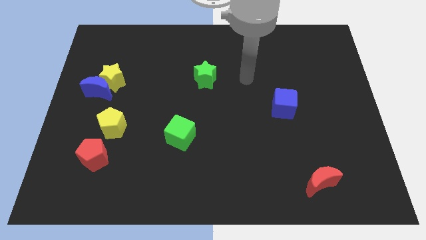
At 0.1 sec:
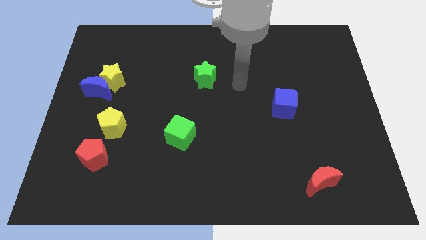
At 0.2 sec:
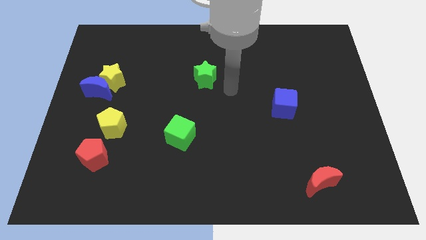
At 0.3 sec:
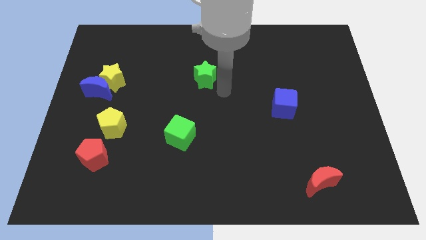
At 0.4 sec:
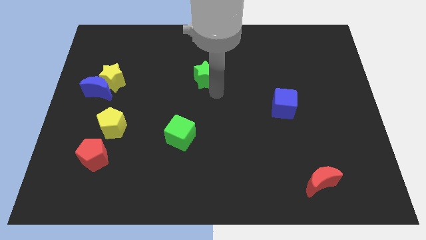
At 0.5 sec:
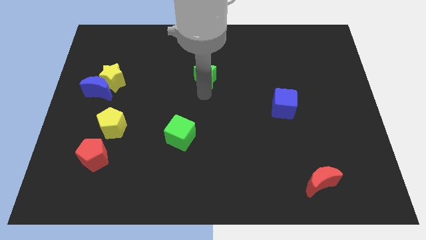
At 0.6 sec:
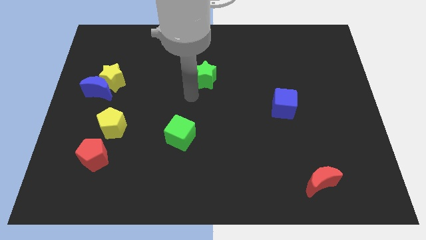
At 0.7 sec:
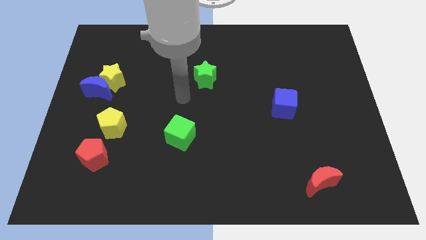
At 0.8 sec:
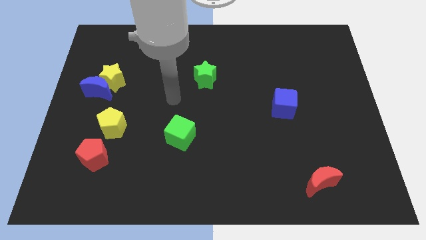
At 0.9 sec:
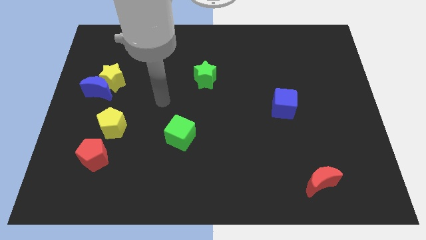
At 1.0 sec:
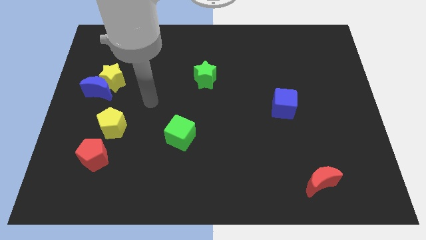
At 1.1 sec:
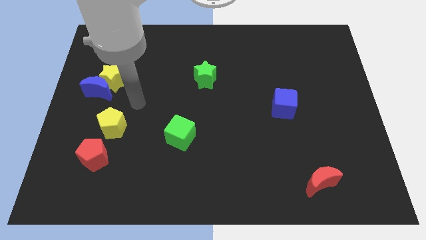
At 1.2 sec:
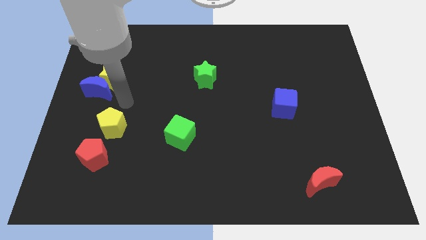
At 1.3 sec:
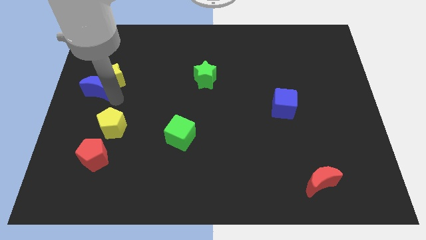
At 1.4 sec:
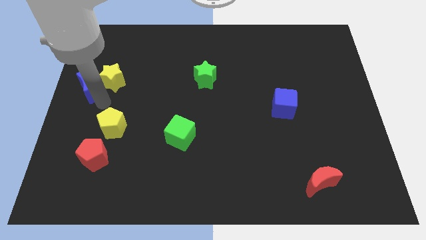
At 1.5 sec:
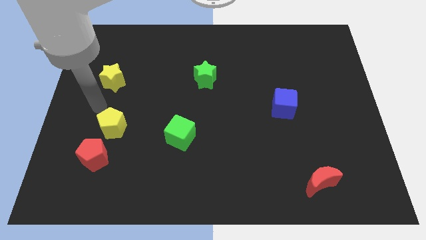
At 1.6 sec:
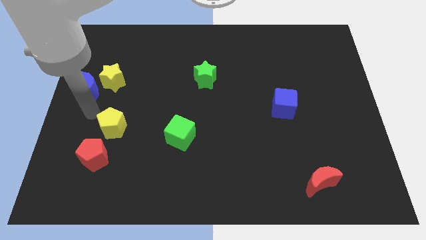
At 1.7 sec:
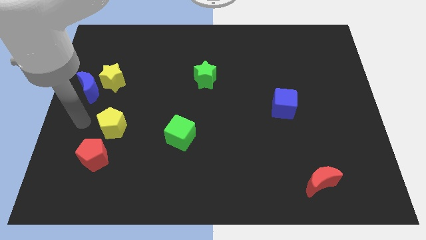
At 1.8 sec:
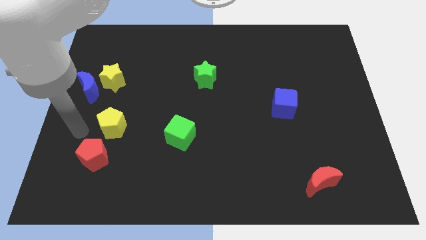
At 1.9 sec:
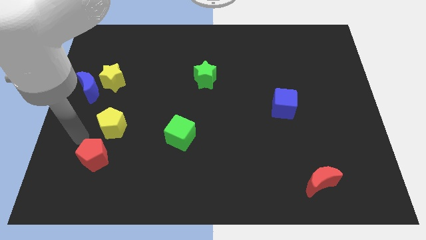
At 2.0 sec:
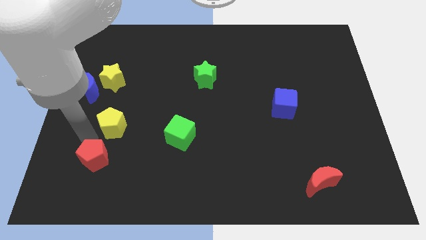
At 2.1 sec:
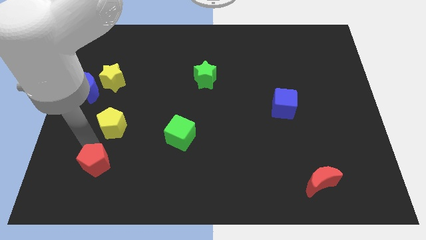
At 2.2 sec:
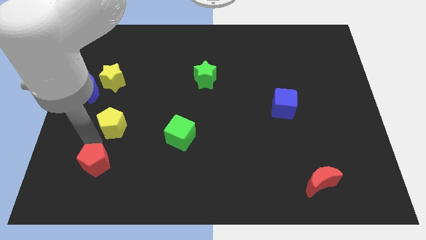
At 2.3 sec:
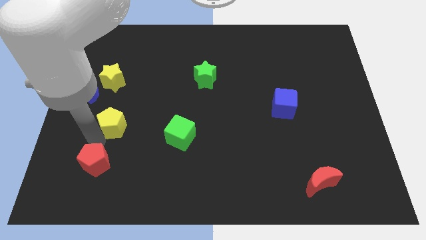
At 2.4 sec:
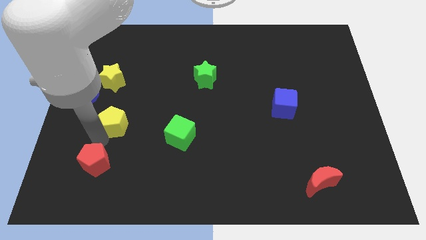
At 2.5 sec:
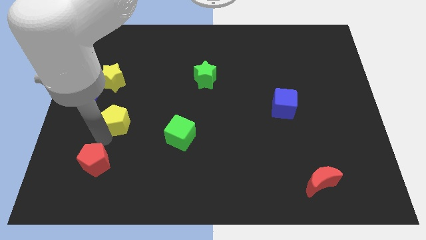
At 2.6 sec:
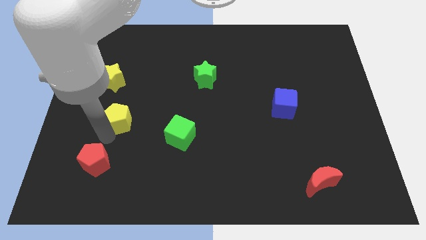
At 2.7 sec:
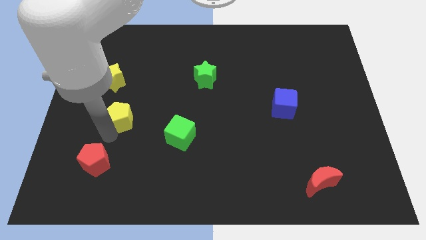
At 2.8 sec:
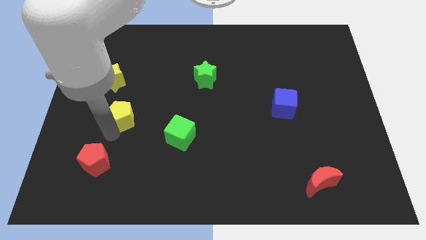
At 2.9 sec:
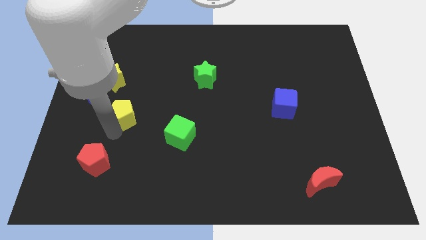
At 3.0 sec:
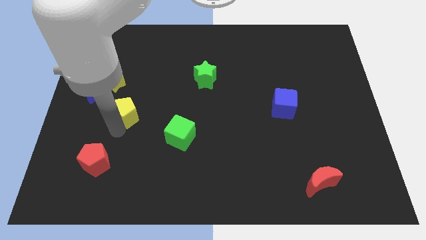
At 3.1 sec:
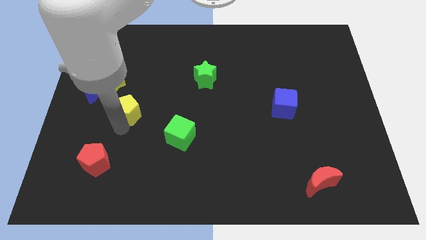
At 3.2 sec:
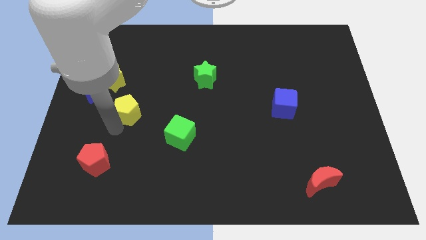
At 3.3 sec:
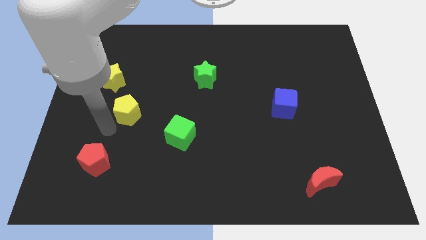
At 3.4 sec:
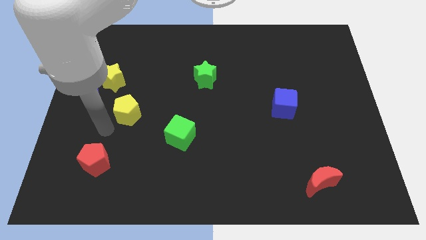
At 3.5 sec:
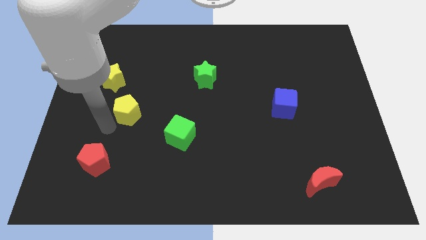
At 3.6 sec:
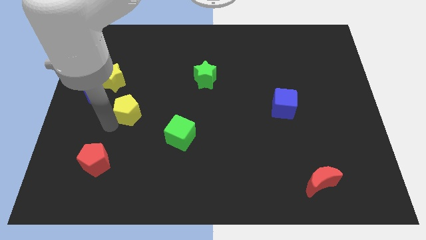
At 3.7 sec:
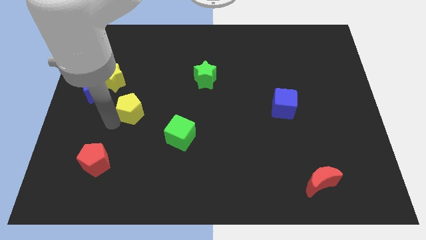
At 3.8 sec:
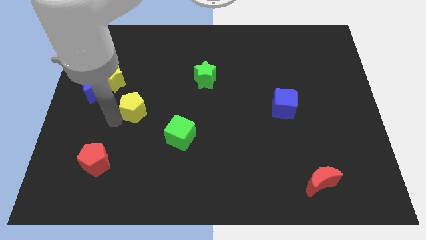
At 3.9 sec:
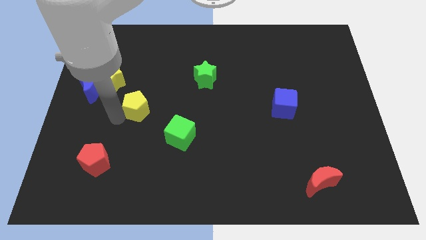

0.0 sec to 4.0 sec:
slightly push the yellow pentagon up and to the right

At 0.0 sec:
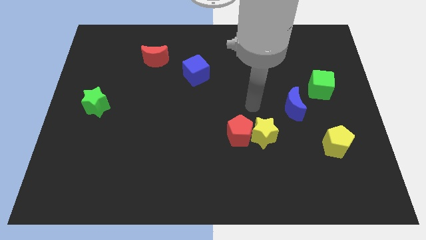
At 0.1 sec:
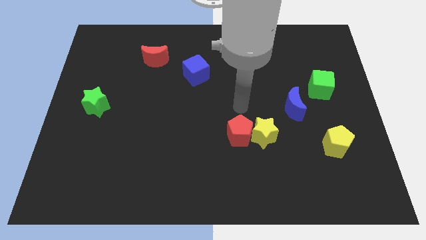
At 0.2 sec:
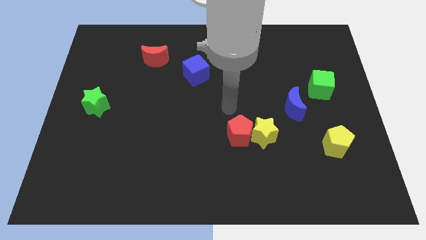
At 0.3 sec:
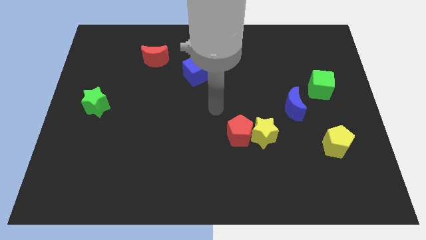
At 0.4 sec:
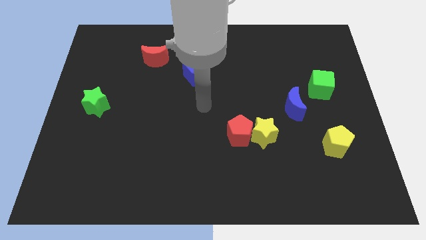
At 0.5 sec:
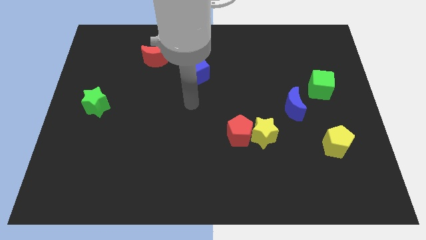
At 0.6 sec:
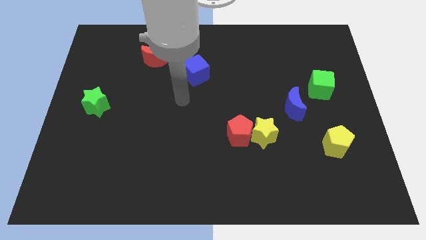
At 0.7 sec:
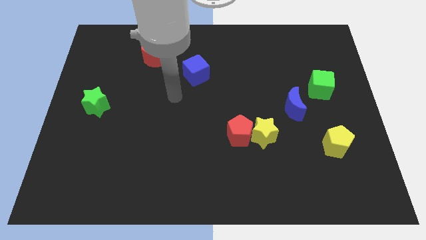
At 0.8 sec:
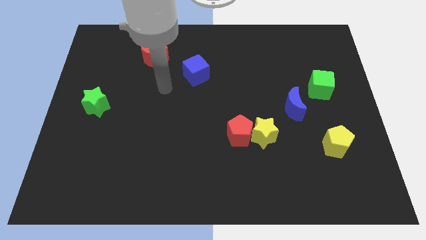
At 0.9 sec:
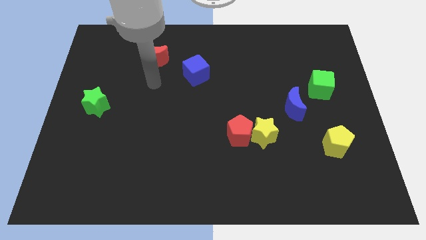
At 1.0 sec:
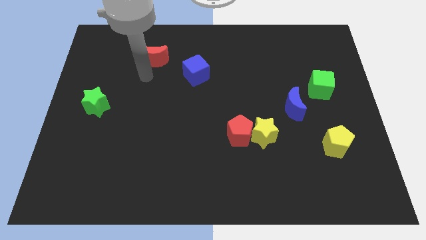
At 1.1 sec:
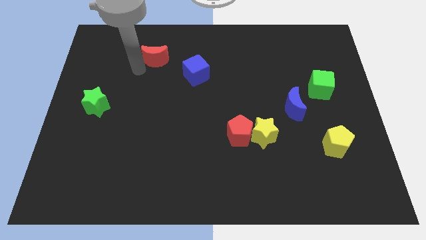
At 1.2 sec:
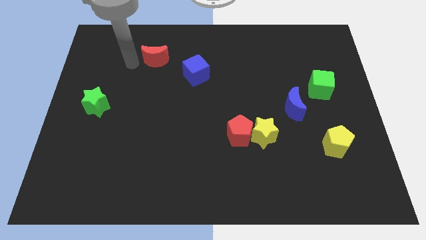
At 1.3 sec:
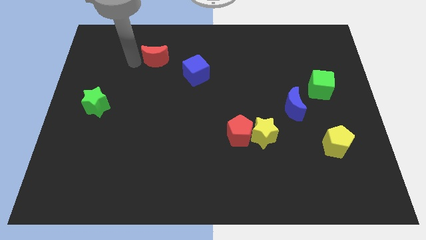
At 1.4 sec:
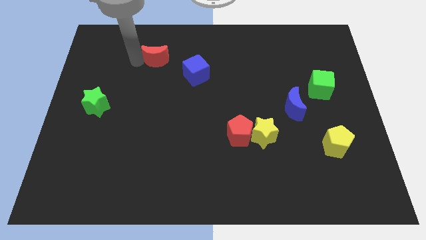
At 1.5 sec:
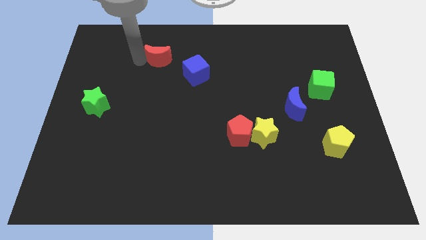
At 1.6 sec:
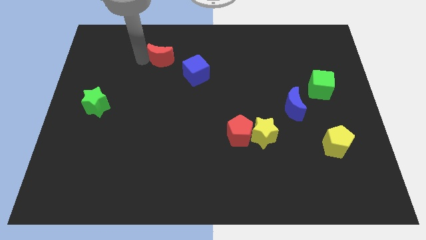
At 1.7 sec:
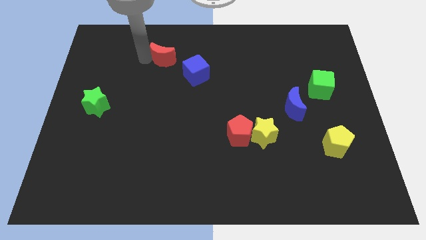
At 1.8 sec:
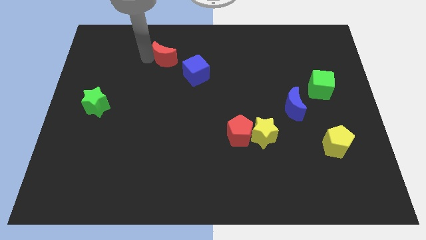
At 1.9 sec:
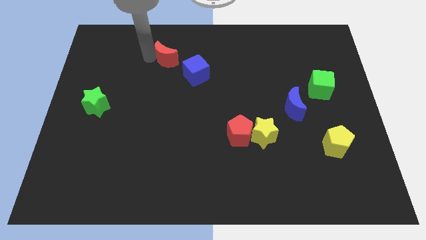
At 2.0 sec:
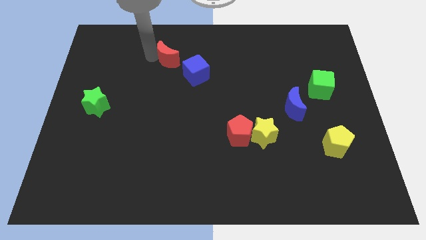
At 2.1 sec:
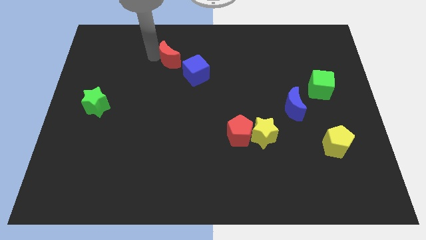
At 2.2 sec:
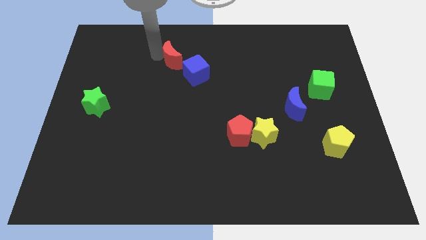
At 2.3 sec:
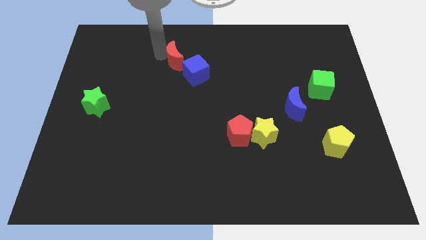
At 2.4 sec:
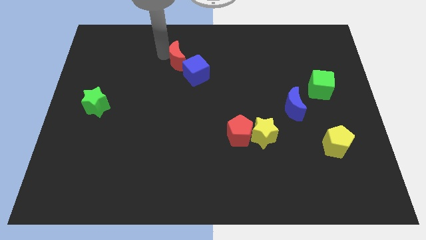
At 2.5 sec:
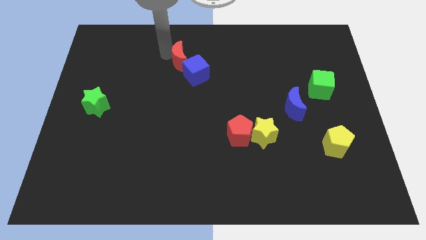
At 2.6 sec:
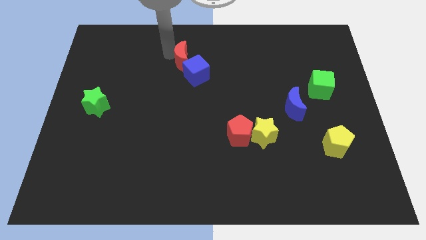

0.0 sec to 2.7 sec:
slightly slide the red moon to the right

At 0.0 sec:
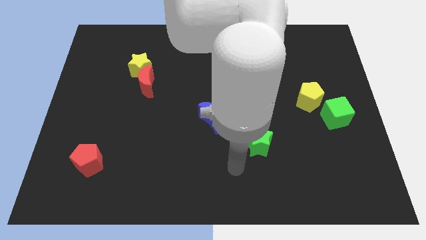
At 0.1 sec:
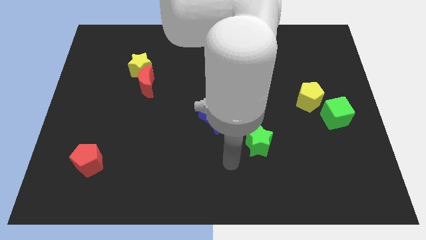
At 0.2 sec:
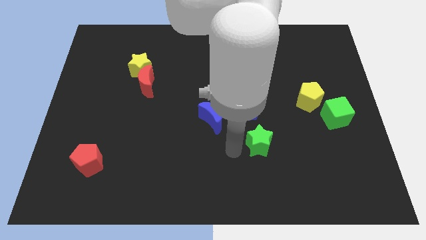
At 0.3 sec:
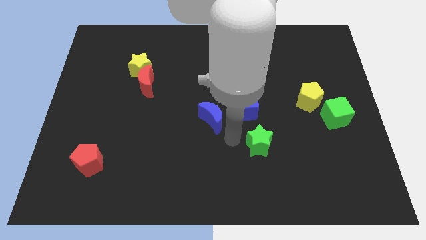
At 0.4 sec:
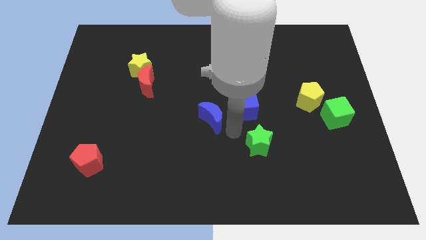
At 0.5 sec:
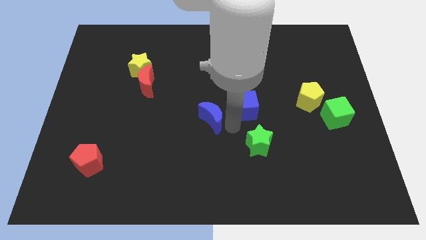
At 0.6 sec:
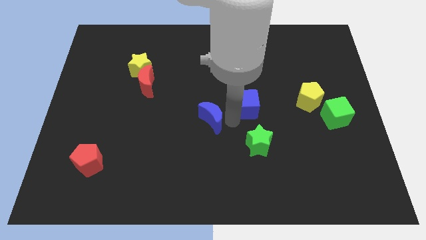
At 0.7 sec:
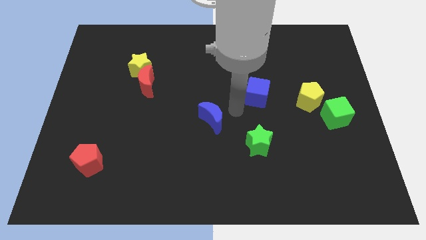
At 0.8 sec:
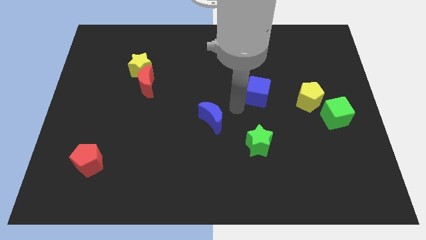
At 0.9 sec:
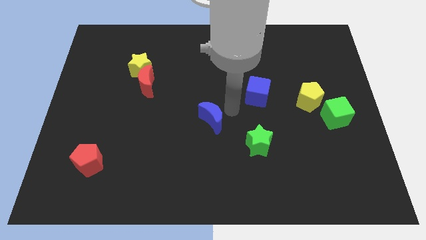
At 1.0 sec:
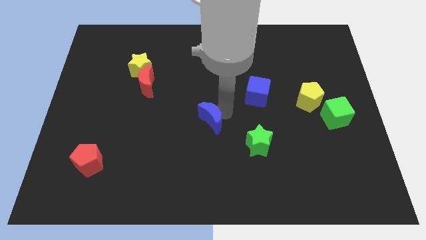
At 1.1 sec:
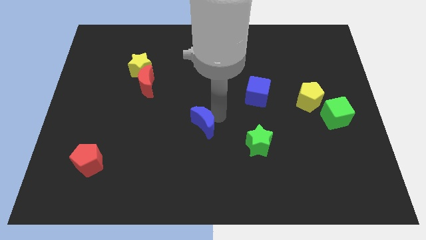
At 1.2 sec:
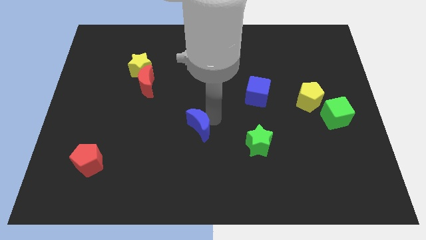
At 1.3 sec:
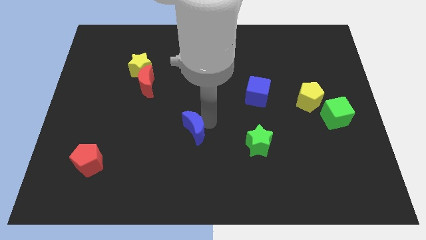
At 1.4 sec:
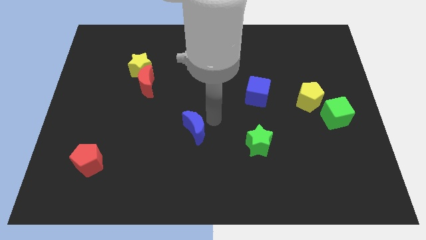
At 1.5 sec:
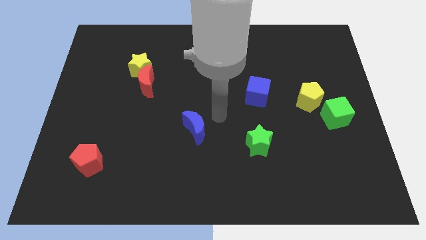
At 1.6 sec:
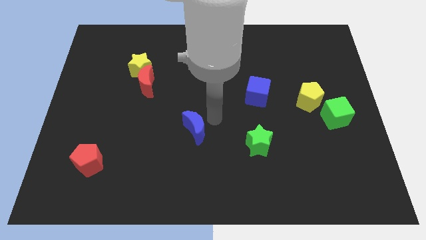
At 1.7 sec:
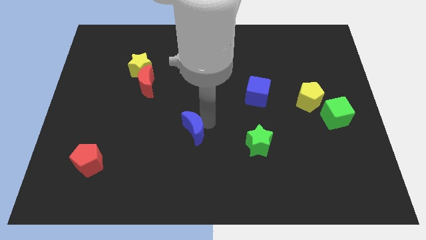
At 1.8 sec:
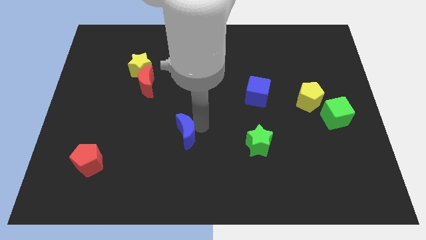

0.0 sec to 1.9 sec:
slightly push the blue moon downwards and then to the left
